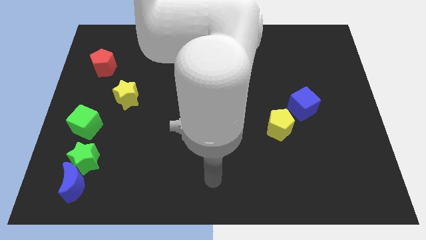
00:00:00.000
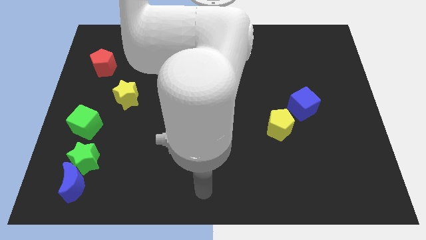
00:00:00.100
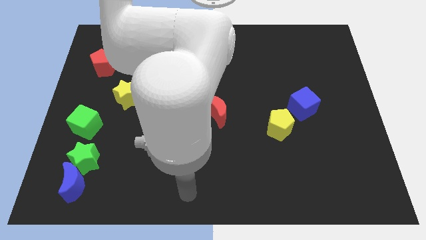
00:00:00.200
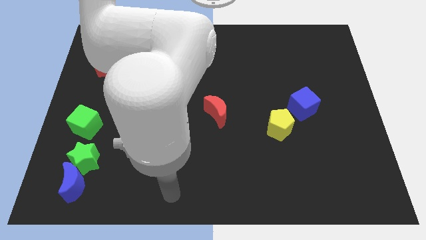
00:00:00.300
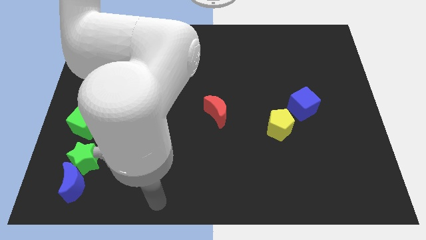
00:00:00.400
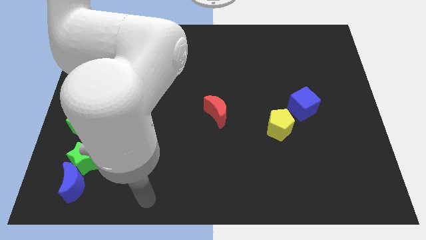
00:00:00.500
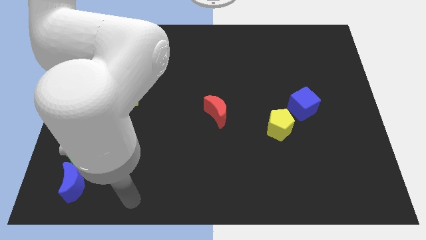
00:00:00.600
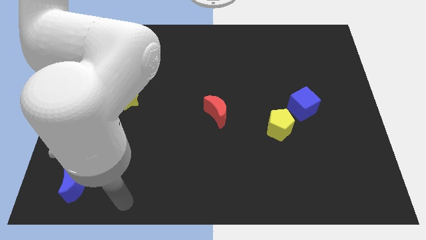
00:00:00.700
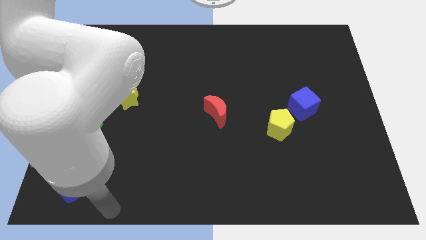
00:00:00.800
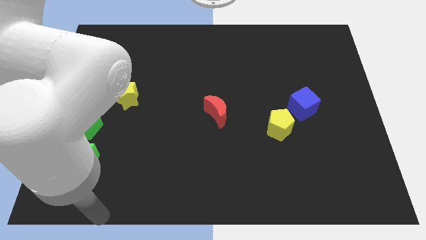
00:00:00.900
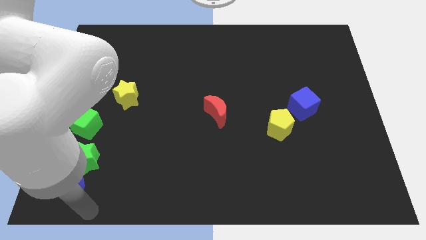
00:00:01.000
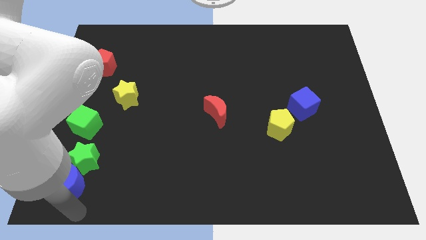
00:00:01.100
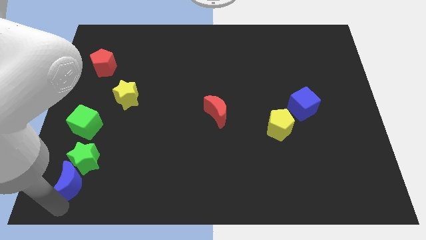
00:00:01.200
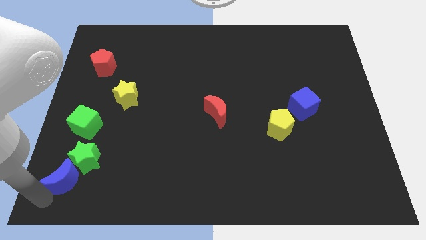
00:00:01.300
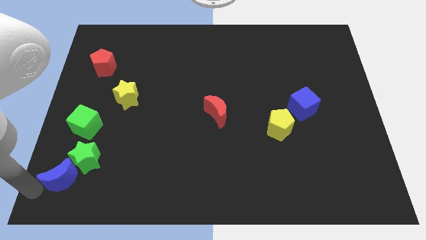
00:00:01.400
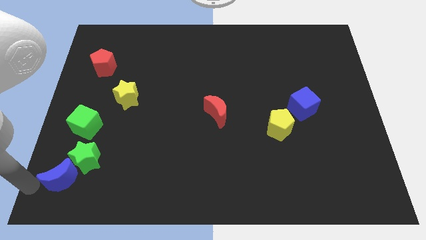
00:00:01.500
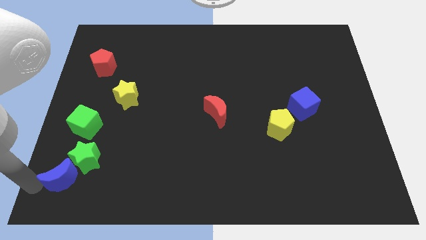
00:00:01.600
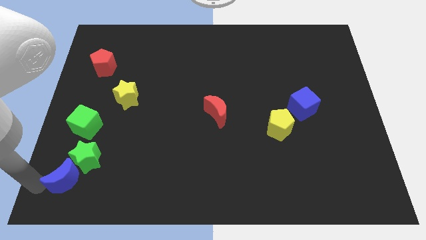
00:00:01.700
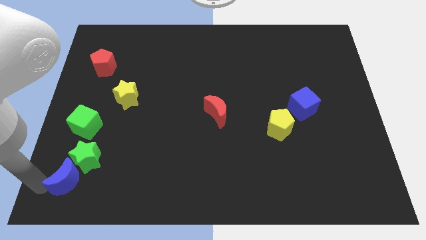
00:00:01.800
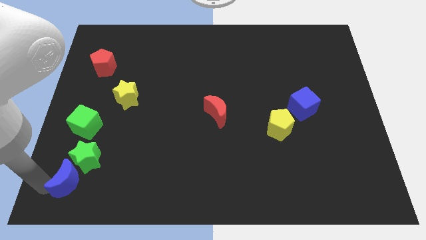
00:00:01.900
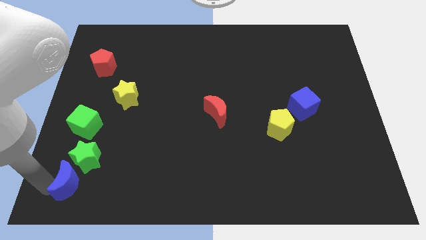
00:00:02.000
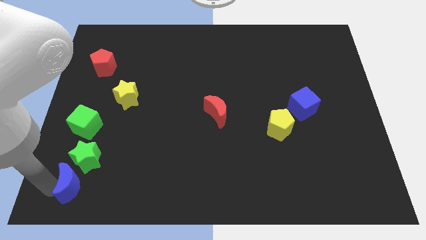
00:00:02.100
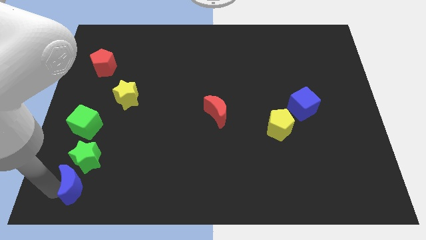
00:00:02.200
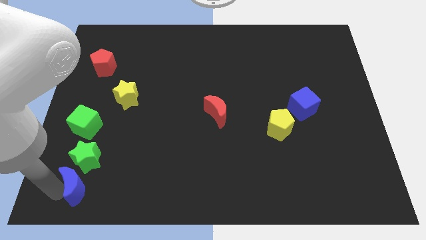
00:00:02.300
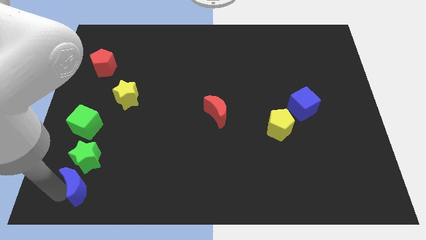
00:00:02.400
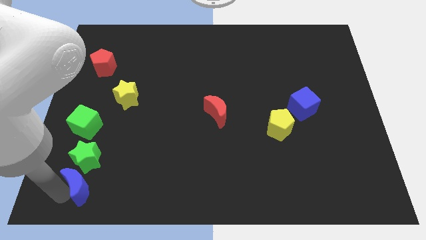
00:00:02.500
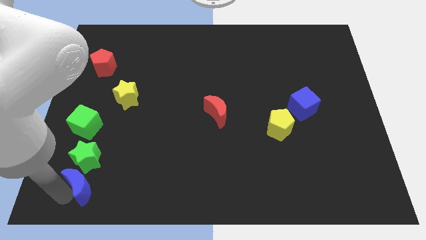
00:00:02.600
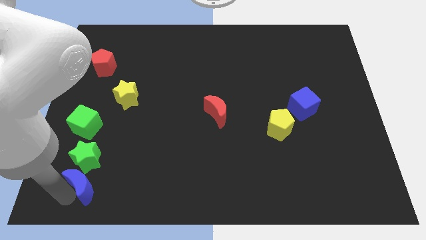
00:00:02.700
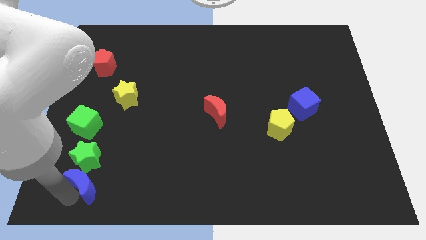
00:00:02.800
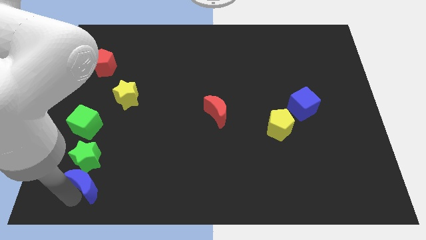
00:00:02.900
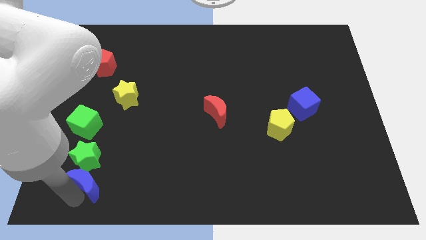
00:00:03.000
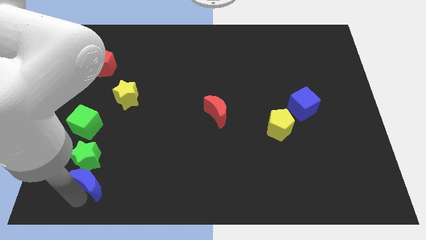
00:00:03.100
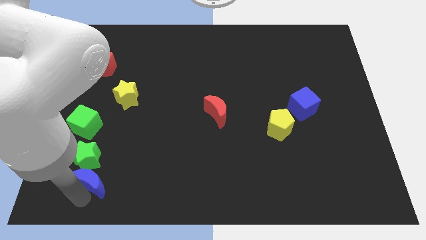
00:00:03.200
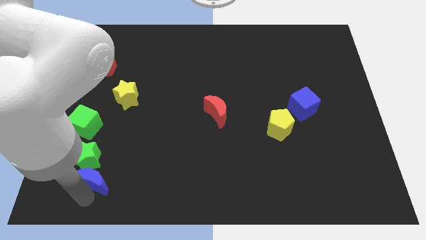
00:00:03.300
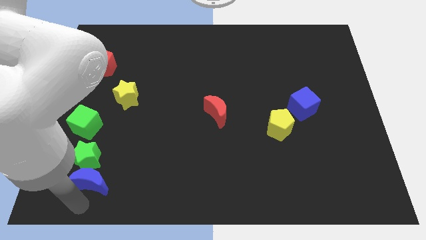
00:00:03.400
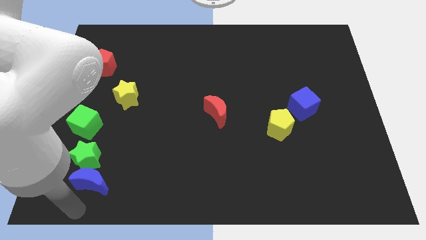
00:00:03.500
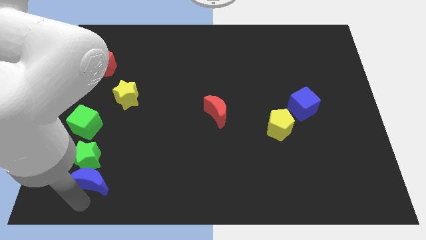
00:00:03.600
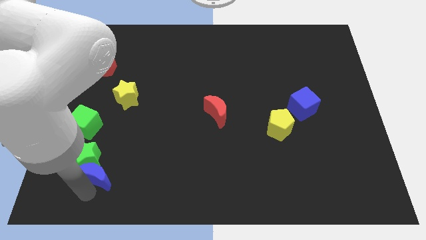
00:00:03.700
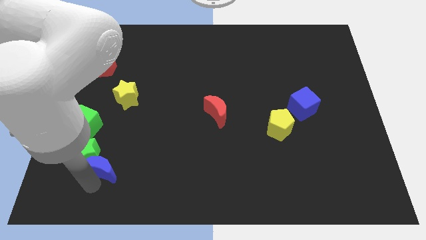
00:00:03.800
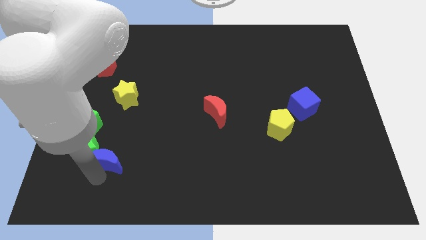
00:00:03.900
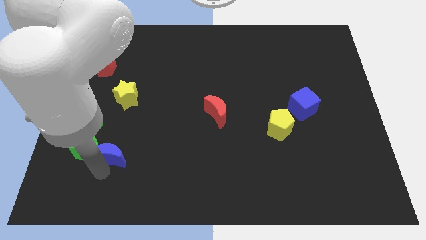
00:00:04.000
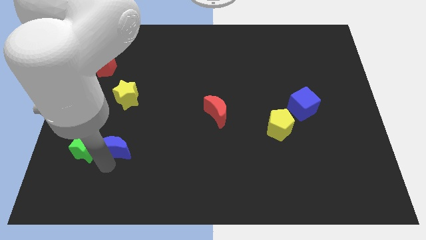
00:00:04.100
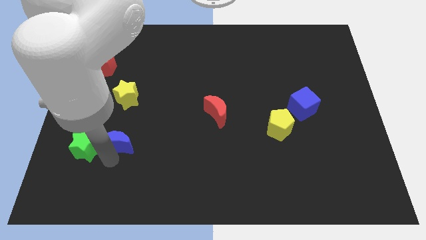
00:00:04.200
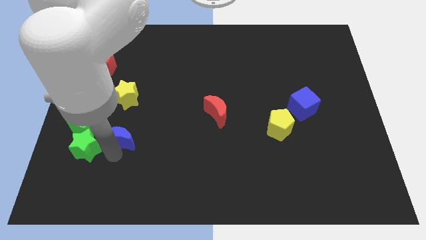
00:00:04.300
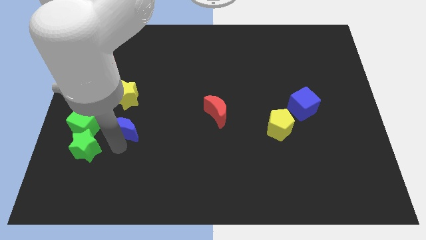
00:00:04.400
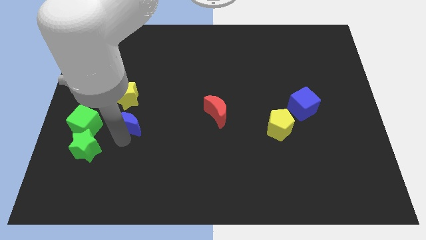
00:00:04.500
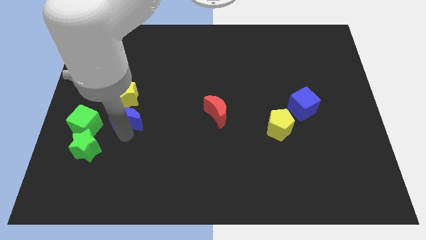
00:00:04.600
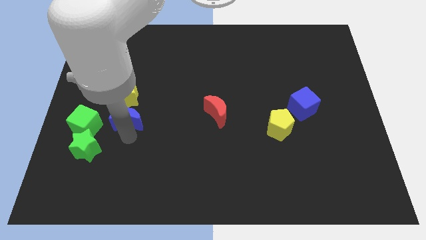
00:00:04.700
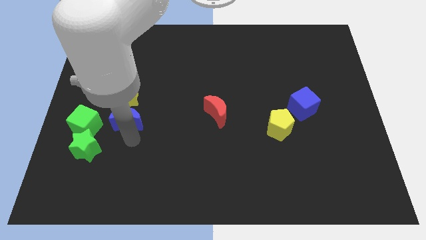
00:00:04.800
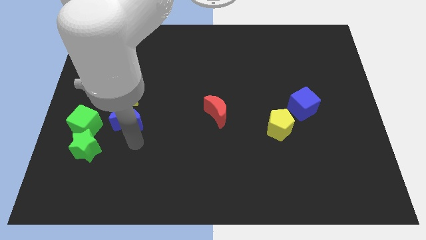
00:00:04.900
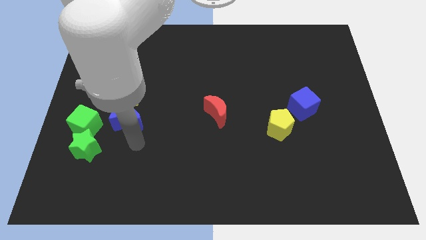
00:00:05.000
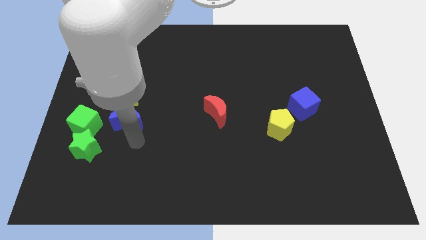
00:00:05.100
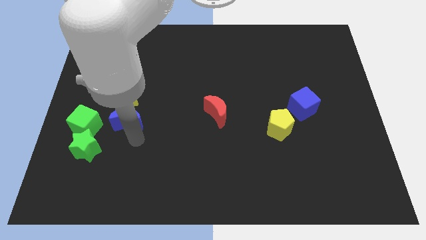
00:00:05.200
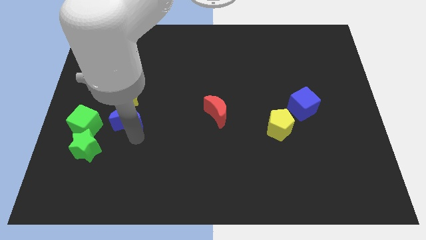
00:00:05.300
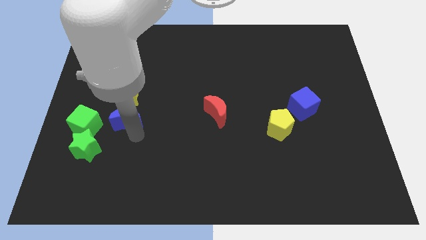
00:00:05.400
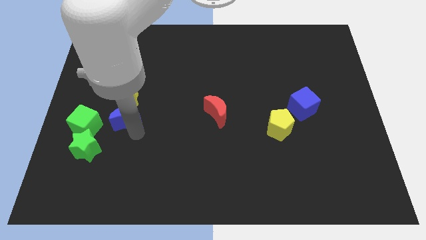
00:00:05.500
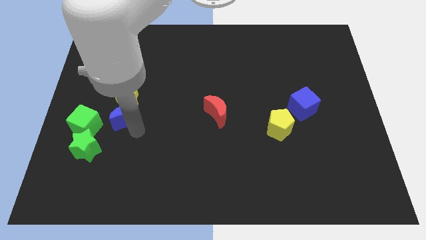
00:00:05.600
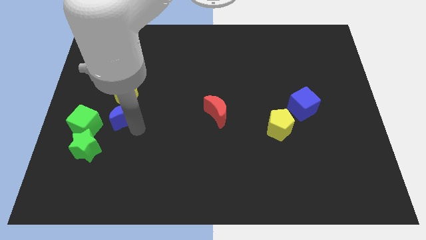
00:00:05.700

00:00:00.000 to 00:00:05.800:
put the blue moon to the yellow star

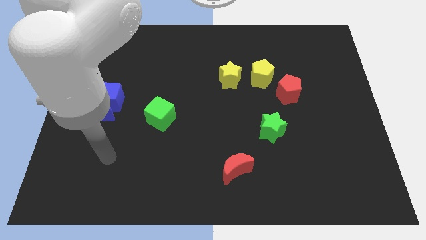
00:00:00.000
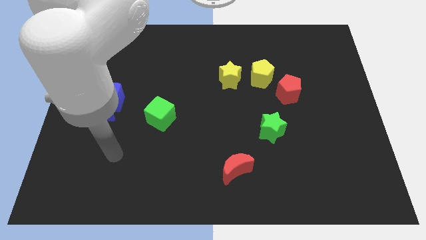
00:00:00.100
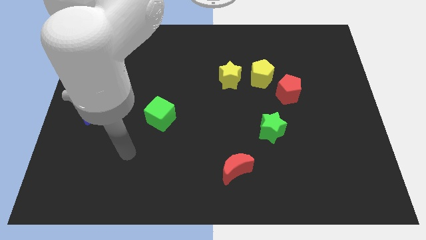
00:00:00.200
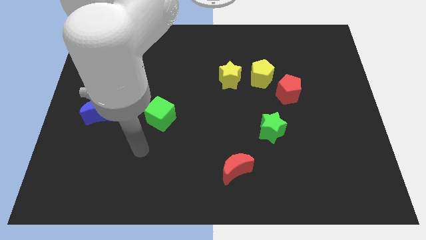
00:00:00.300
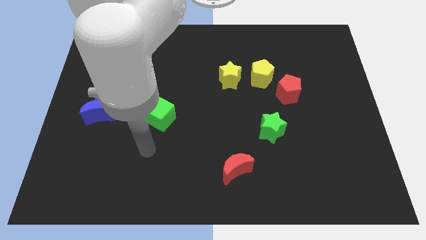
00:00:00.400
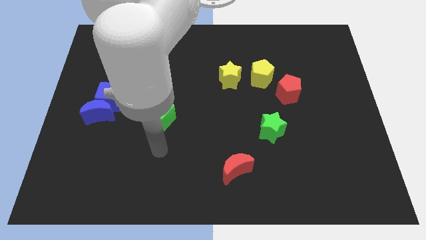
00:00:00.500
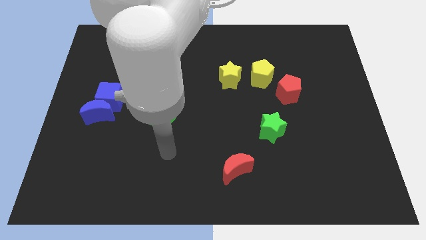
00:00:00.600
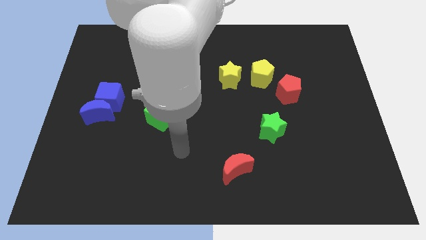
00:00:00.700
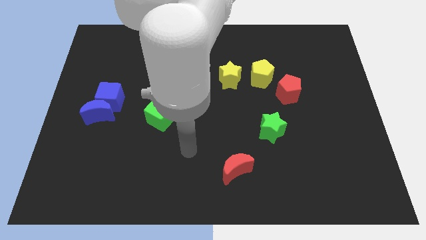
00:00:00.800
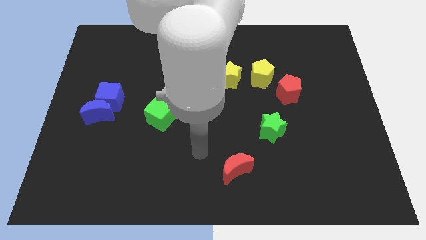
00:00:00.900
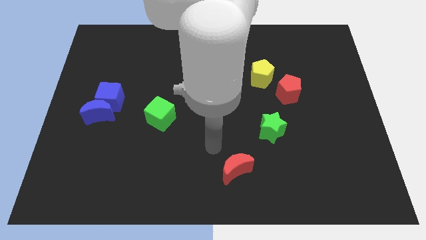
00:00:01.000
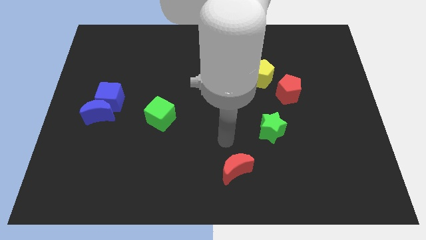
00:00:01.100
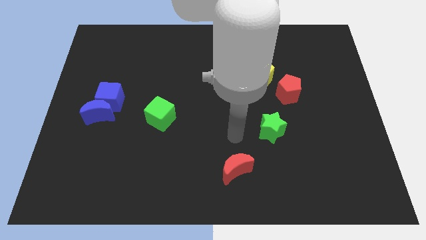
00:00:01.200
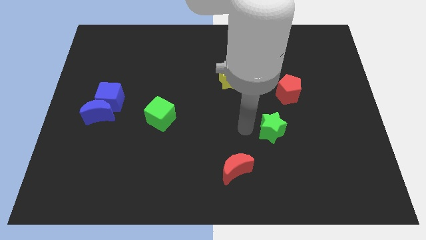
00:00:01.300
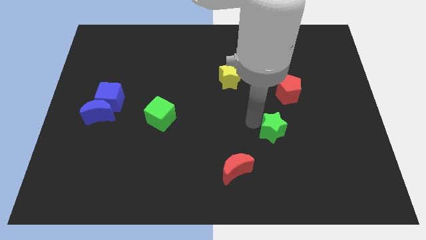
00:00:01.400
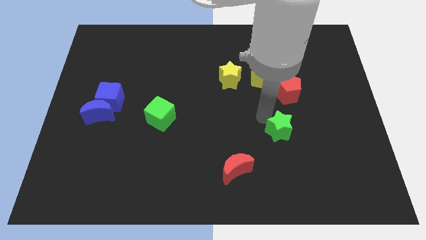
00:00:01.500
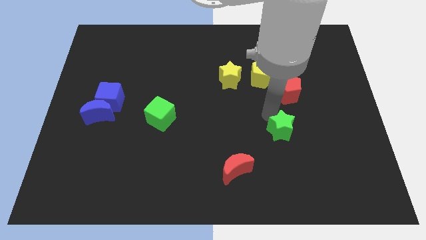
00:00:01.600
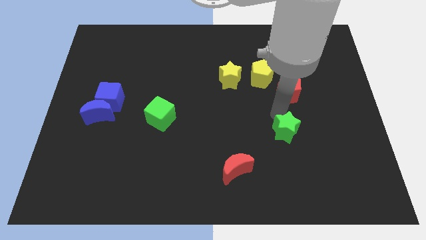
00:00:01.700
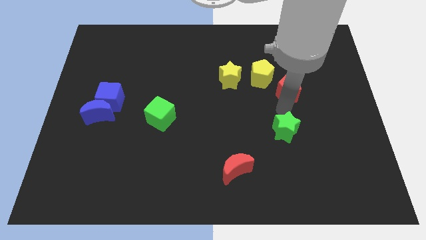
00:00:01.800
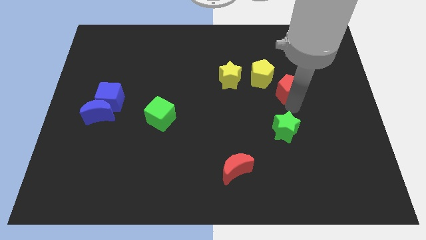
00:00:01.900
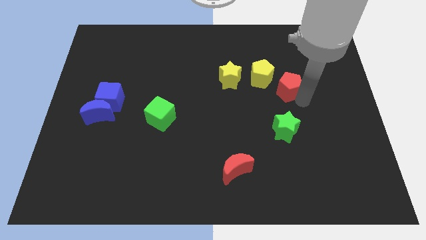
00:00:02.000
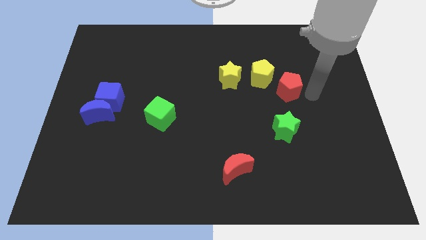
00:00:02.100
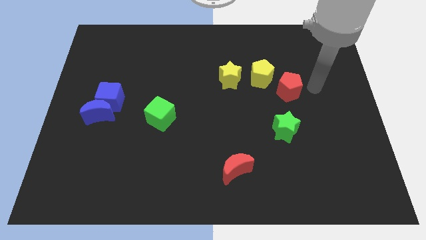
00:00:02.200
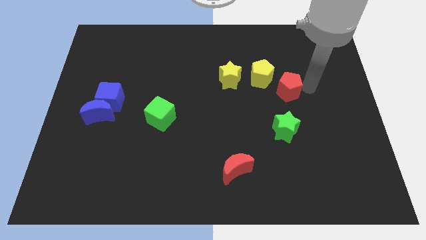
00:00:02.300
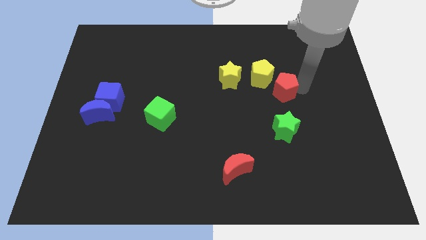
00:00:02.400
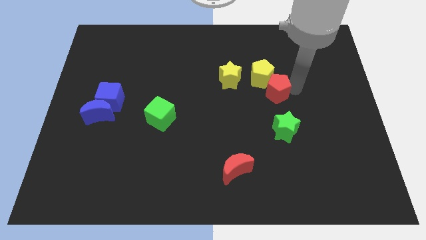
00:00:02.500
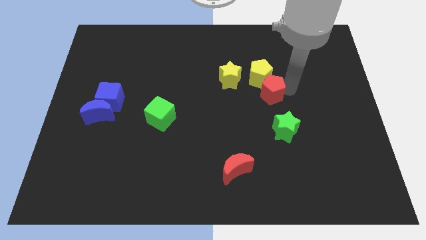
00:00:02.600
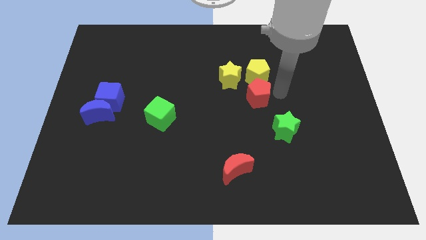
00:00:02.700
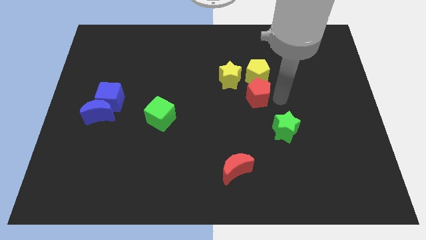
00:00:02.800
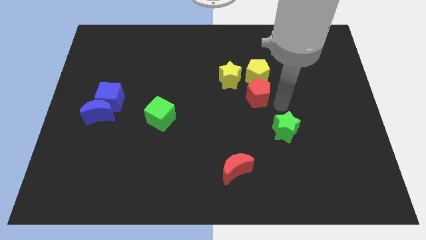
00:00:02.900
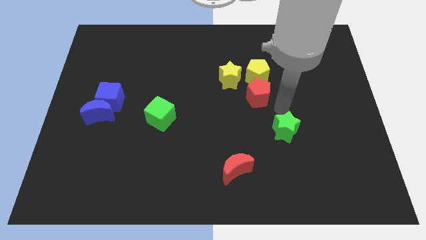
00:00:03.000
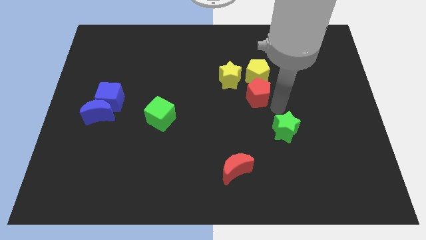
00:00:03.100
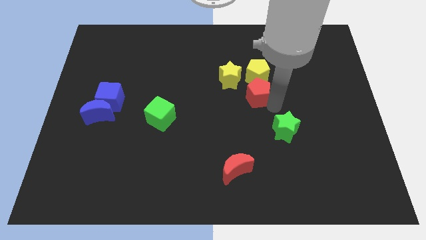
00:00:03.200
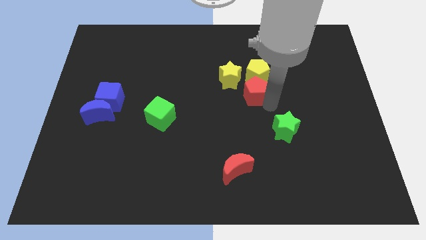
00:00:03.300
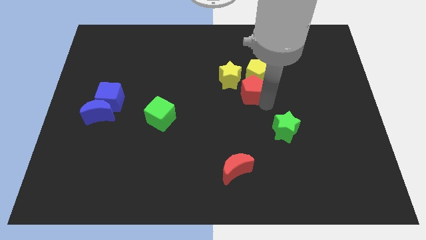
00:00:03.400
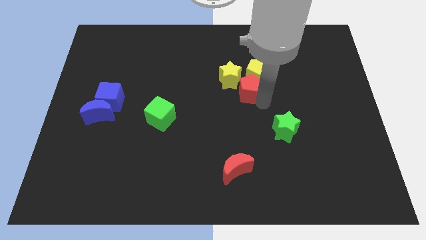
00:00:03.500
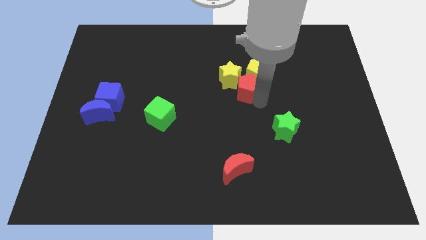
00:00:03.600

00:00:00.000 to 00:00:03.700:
slide the red pentagon next to the yellow star
